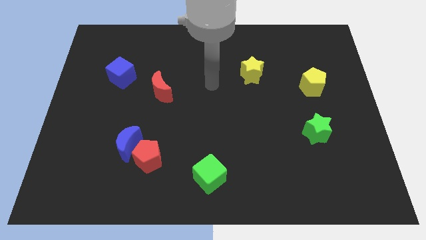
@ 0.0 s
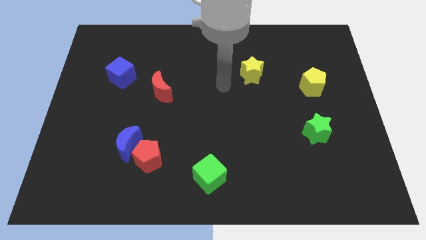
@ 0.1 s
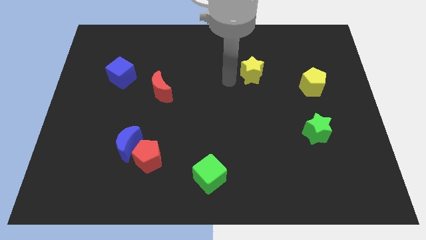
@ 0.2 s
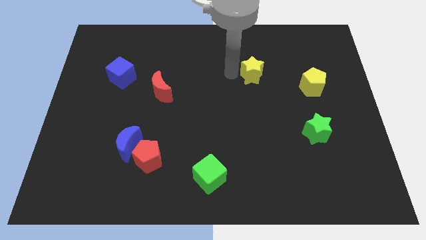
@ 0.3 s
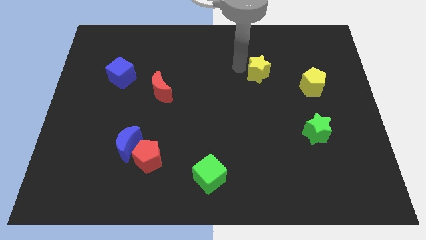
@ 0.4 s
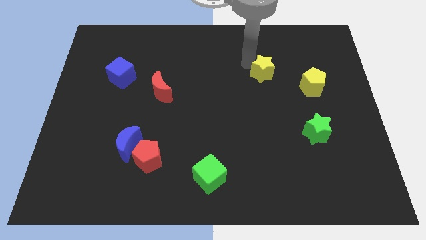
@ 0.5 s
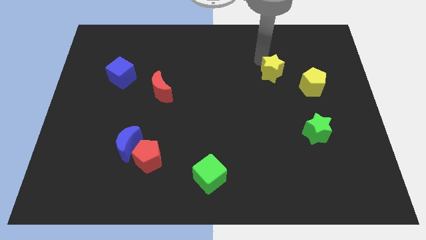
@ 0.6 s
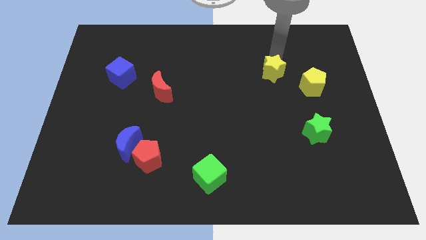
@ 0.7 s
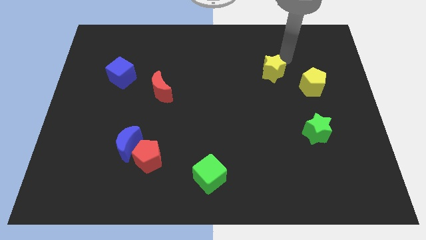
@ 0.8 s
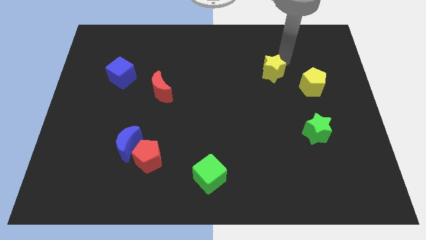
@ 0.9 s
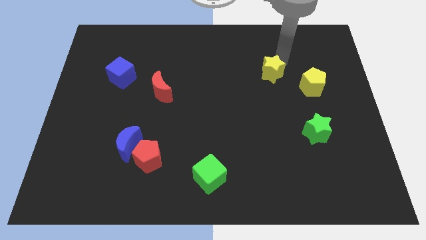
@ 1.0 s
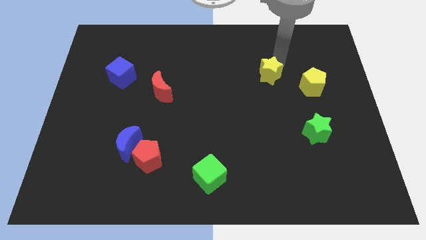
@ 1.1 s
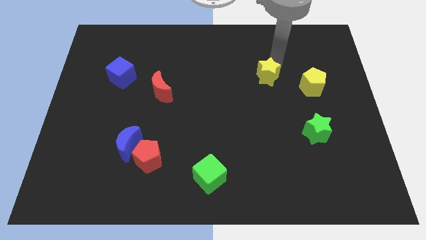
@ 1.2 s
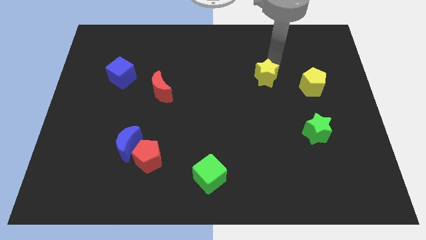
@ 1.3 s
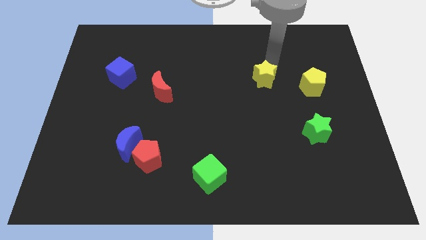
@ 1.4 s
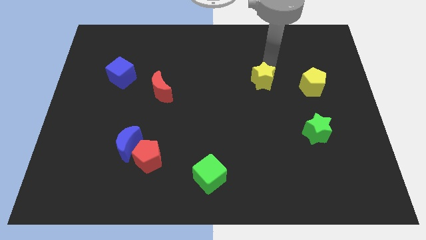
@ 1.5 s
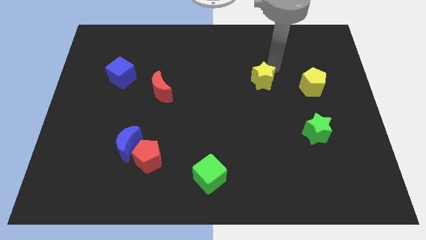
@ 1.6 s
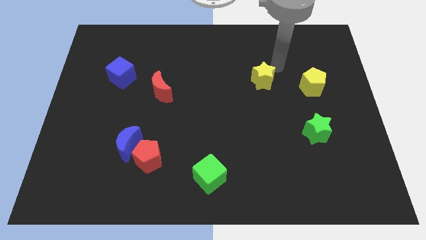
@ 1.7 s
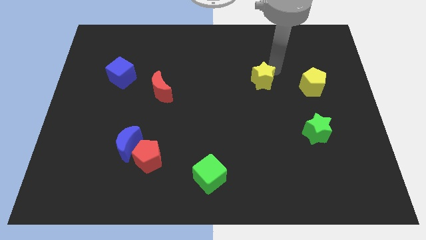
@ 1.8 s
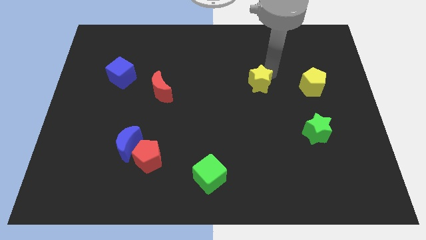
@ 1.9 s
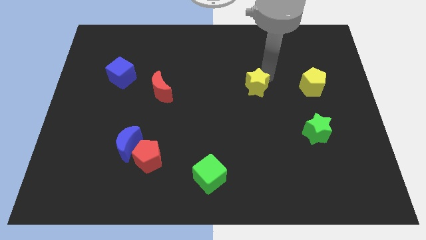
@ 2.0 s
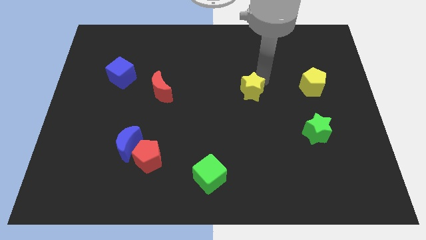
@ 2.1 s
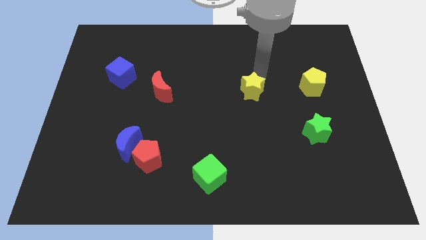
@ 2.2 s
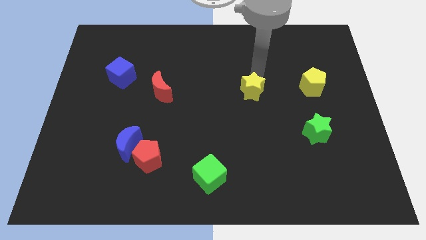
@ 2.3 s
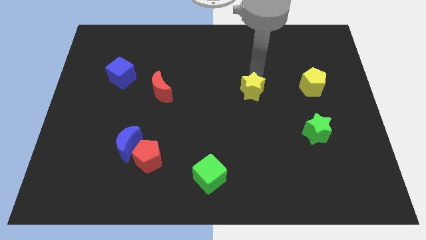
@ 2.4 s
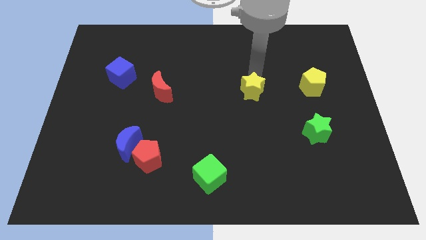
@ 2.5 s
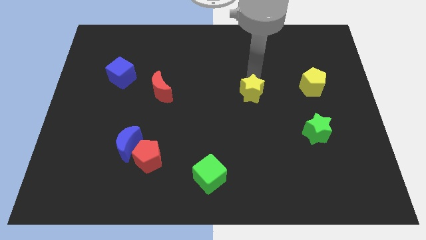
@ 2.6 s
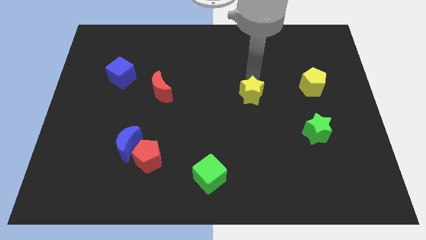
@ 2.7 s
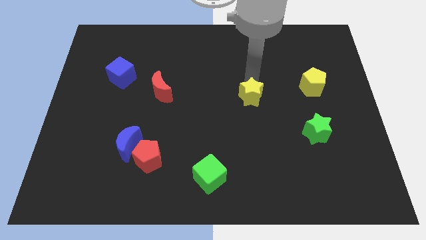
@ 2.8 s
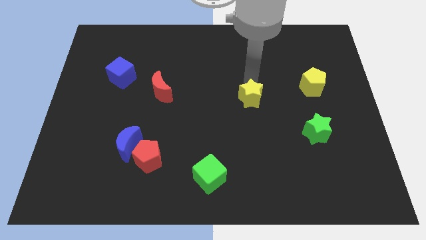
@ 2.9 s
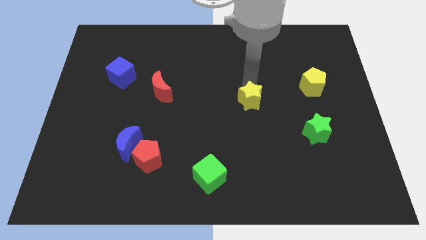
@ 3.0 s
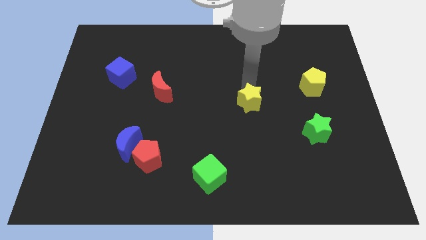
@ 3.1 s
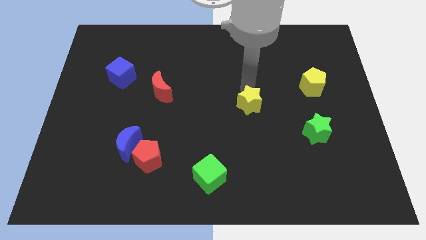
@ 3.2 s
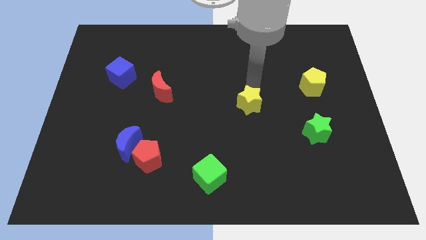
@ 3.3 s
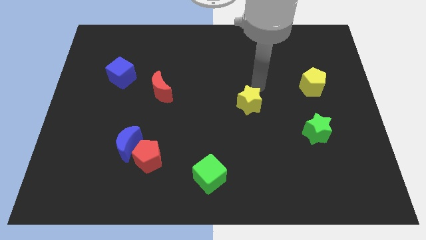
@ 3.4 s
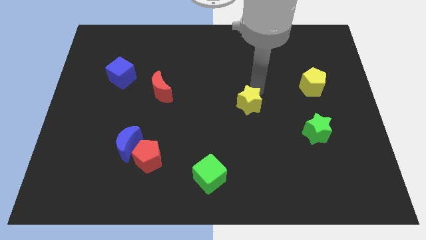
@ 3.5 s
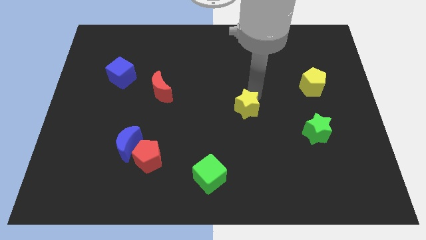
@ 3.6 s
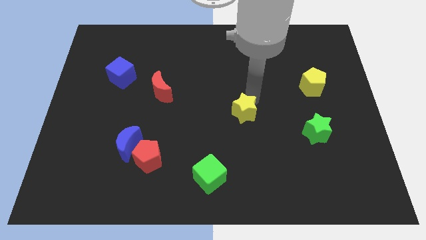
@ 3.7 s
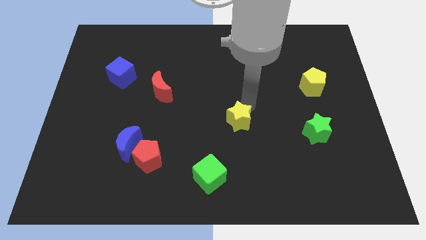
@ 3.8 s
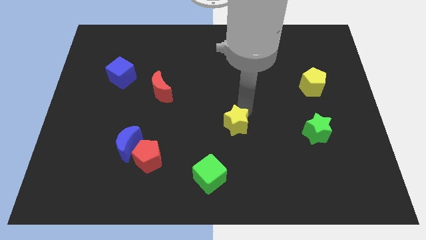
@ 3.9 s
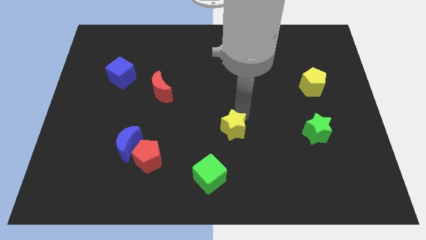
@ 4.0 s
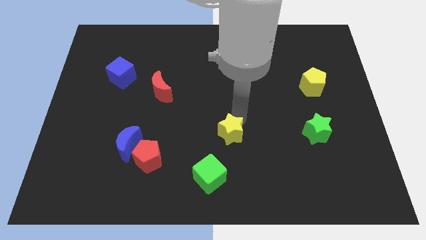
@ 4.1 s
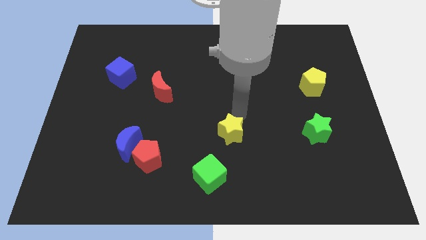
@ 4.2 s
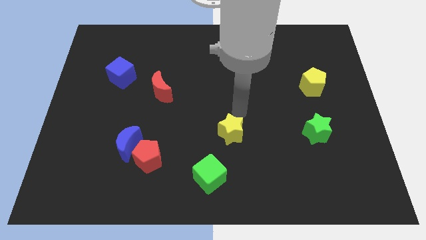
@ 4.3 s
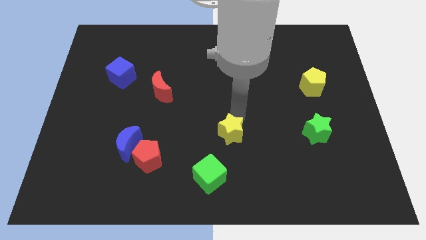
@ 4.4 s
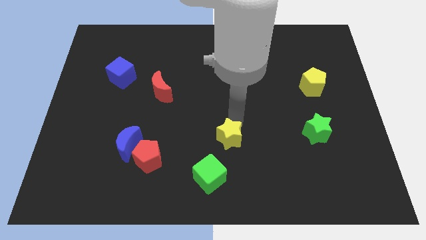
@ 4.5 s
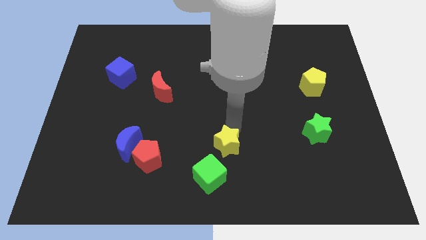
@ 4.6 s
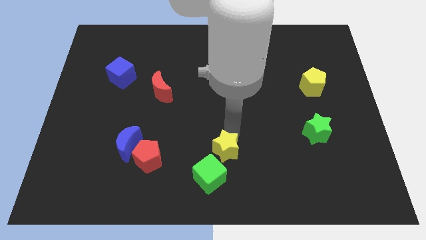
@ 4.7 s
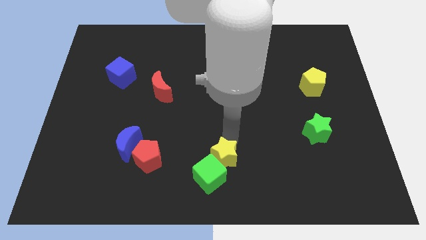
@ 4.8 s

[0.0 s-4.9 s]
put the yellow star close to the green cube

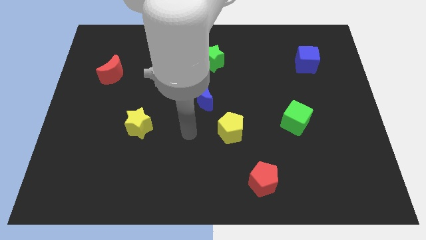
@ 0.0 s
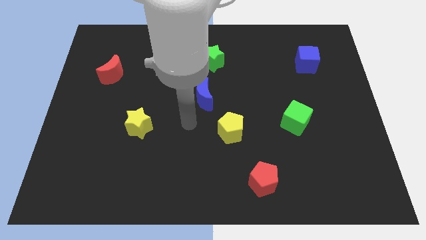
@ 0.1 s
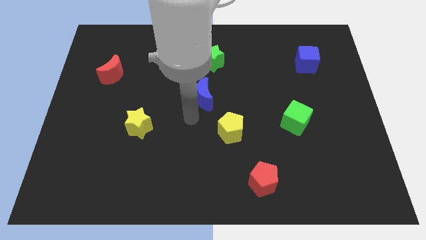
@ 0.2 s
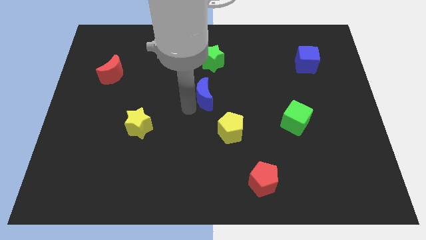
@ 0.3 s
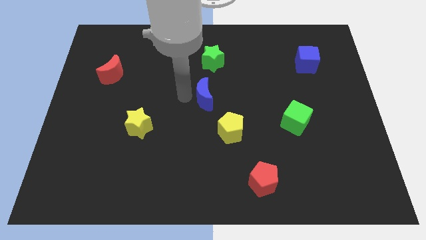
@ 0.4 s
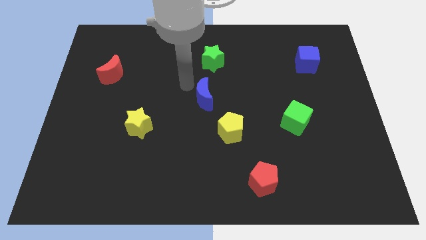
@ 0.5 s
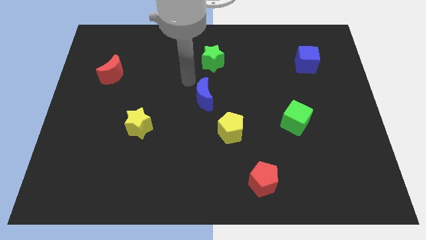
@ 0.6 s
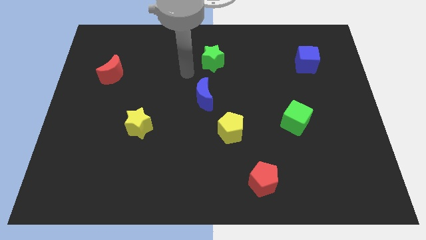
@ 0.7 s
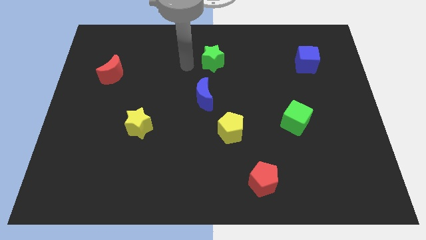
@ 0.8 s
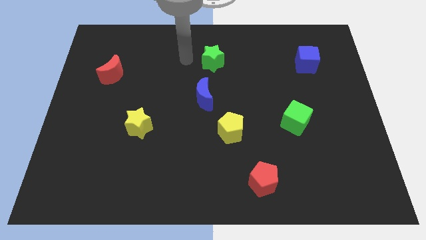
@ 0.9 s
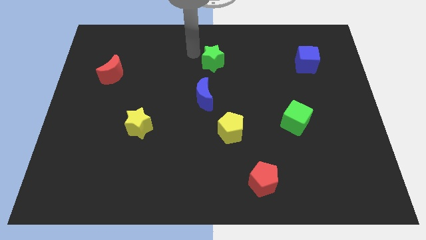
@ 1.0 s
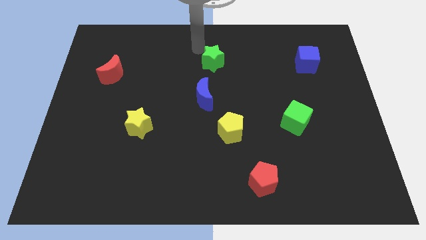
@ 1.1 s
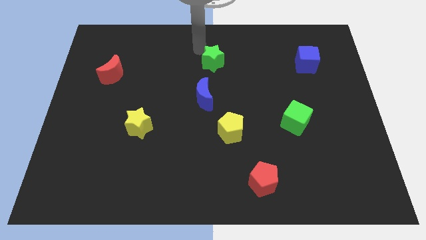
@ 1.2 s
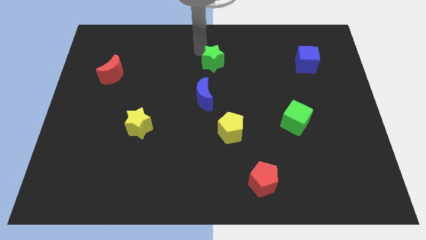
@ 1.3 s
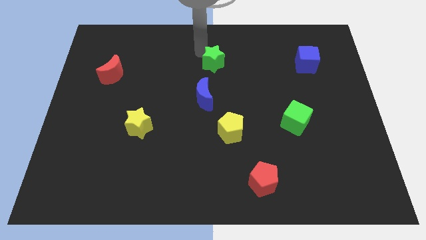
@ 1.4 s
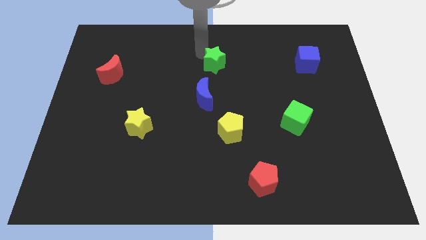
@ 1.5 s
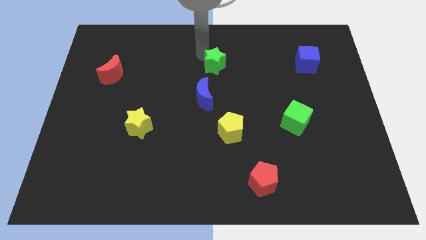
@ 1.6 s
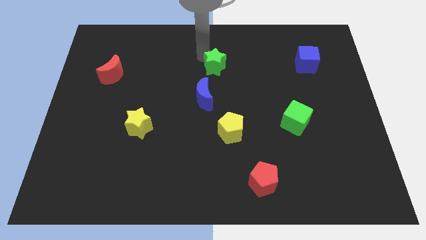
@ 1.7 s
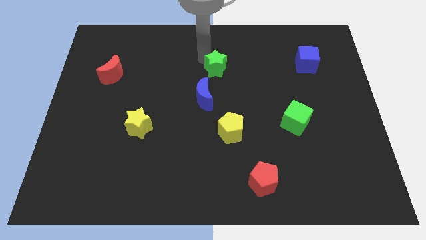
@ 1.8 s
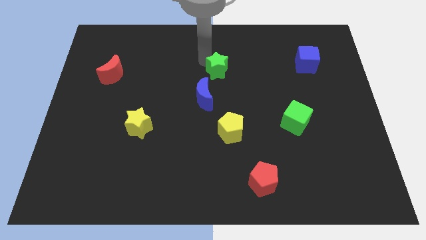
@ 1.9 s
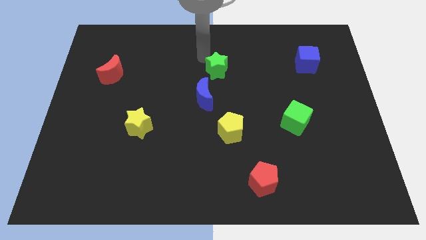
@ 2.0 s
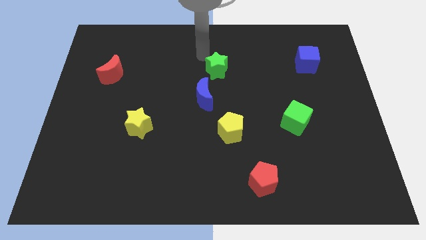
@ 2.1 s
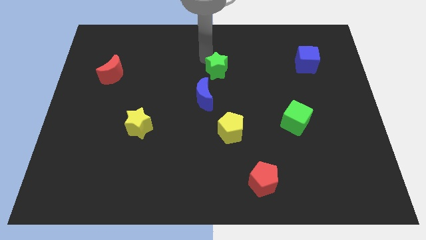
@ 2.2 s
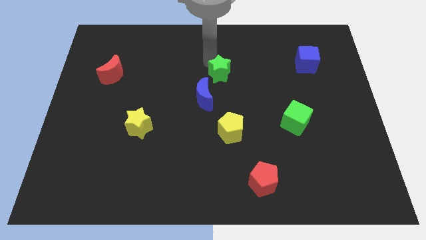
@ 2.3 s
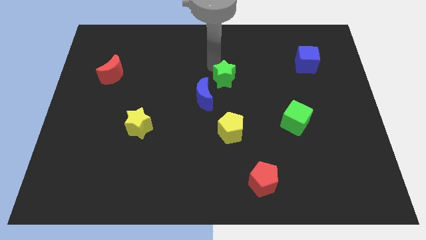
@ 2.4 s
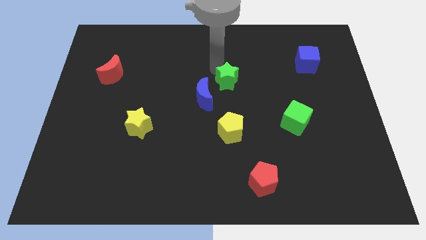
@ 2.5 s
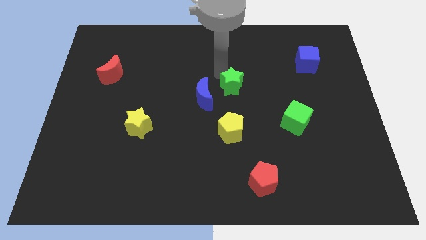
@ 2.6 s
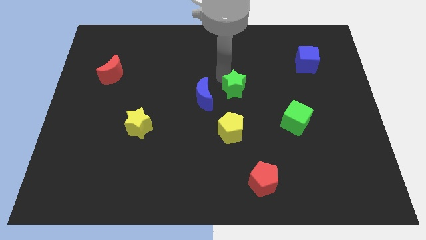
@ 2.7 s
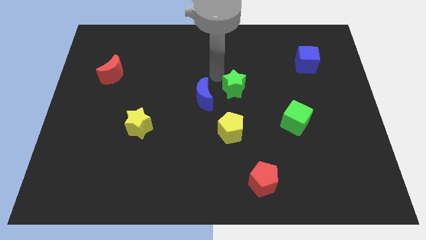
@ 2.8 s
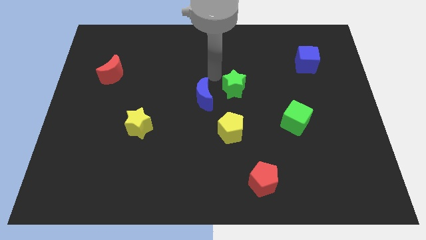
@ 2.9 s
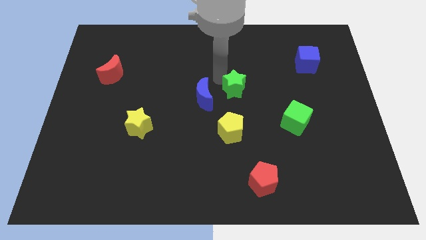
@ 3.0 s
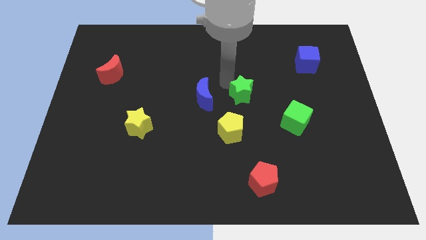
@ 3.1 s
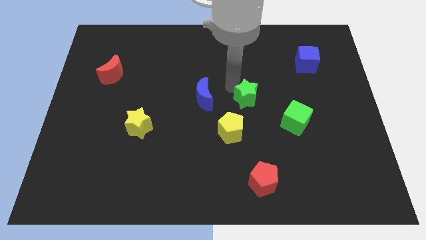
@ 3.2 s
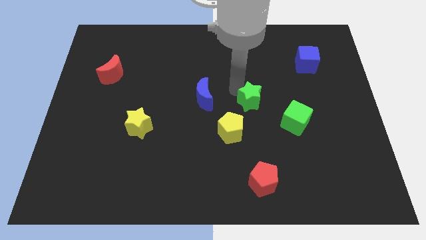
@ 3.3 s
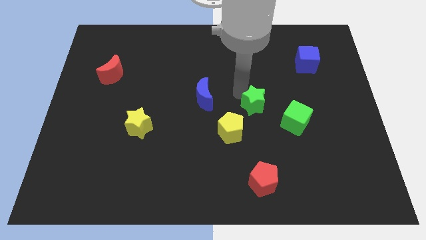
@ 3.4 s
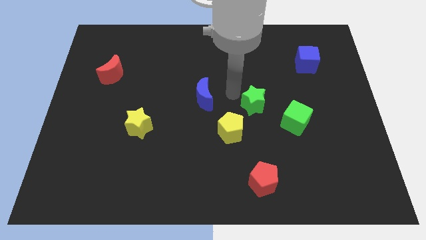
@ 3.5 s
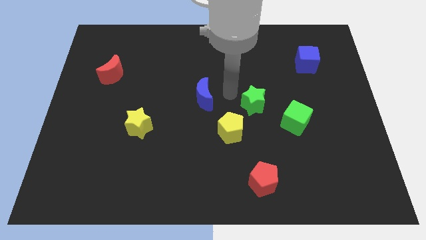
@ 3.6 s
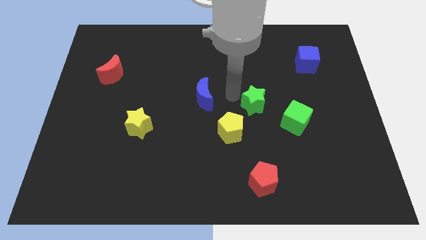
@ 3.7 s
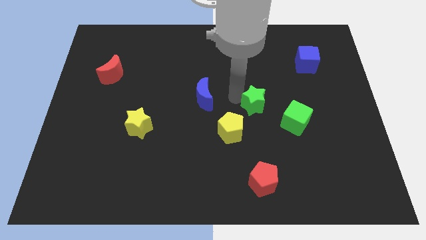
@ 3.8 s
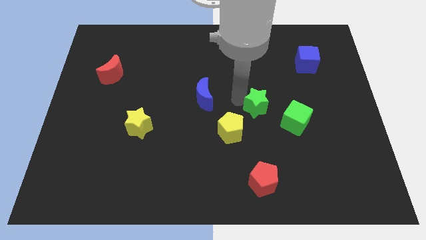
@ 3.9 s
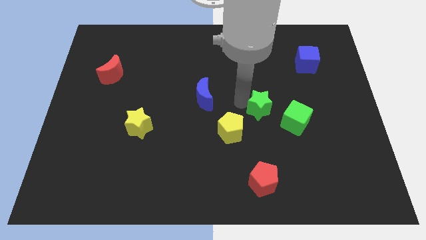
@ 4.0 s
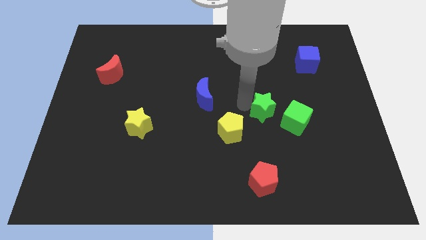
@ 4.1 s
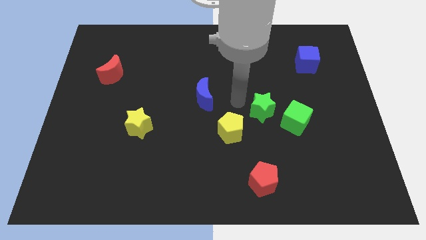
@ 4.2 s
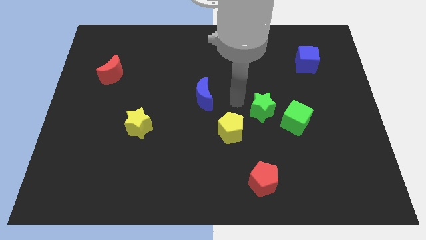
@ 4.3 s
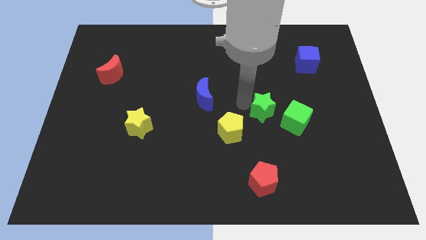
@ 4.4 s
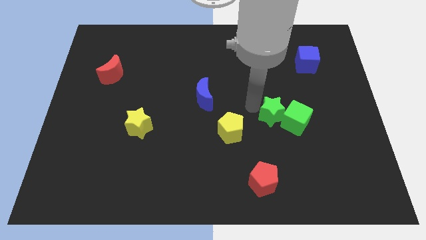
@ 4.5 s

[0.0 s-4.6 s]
slide the green star next to the green cube
